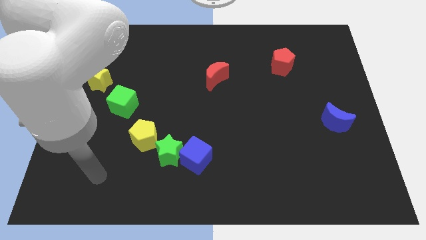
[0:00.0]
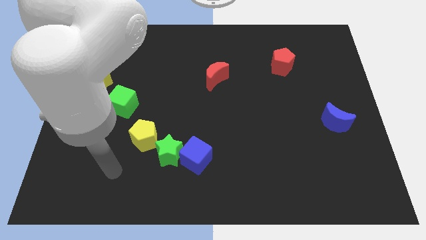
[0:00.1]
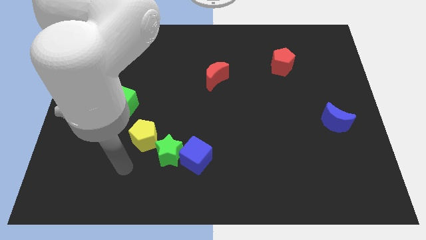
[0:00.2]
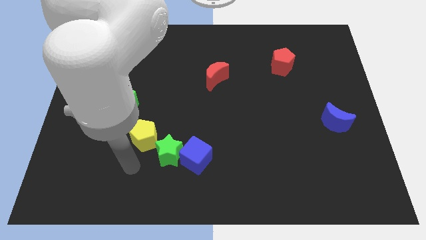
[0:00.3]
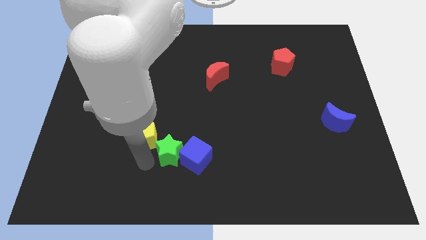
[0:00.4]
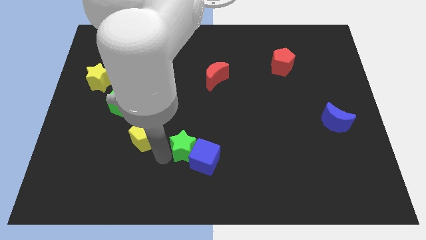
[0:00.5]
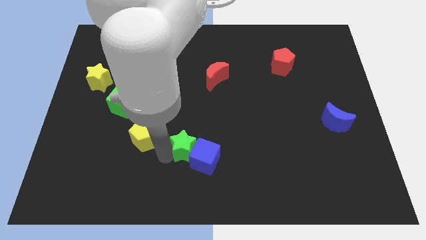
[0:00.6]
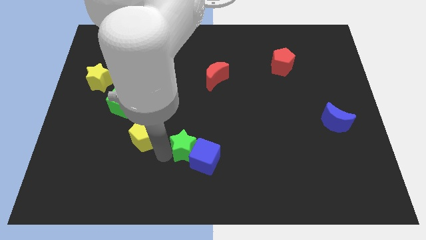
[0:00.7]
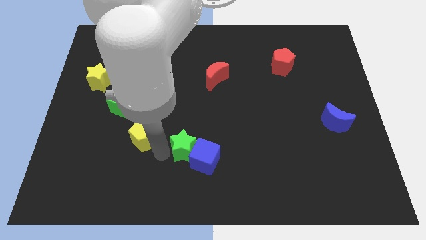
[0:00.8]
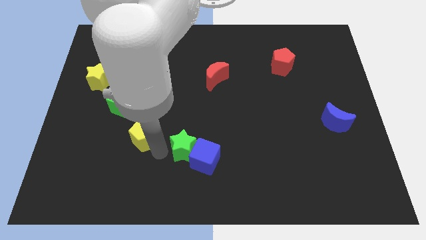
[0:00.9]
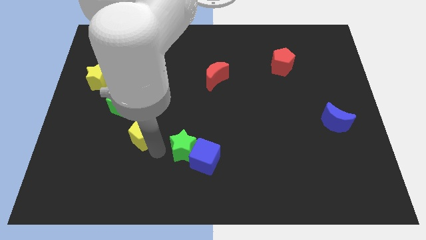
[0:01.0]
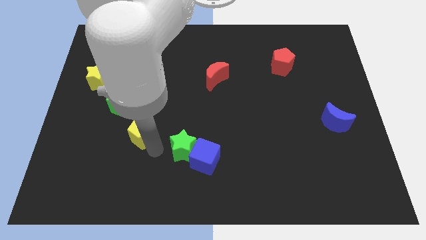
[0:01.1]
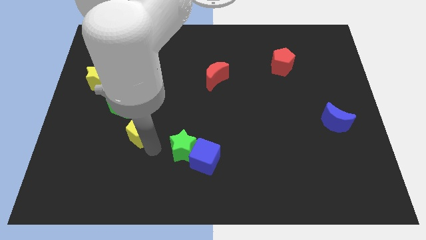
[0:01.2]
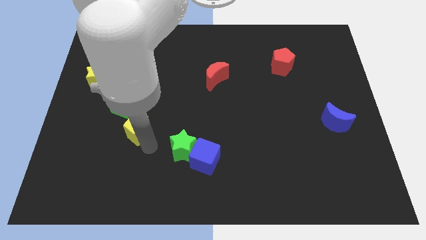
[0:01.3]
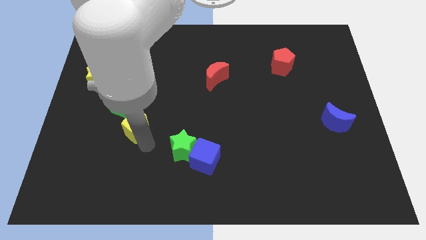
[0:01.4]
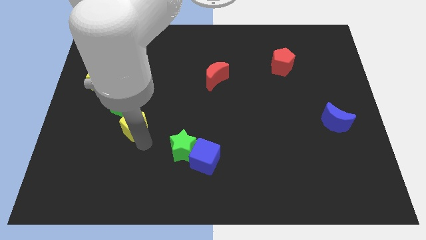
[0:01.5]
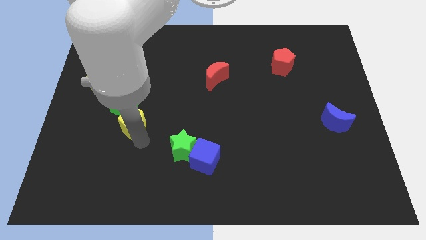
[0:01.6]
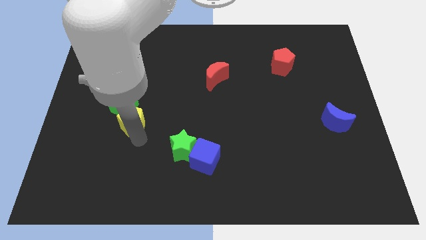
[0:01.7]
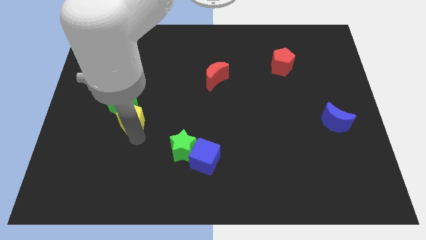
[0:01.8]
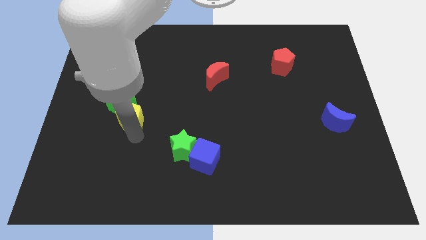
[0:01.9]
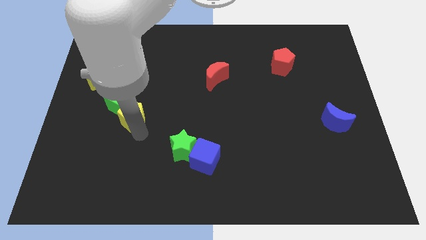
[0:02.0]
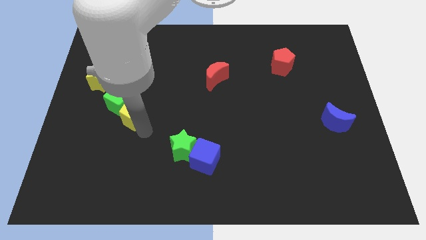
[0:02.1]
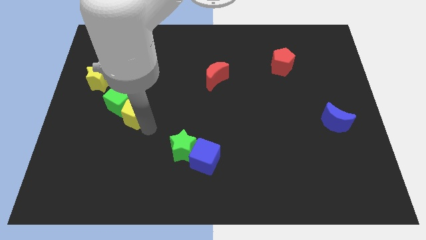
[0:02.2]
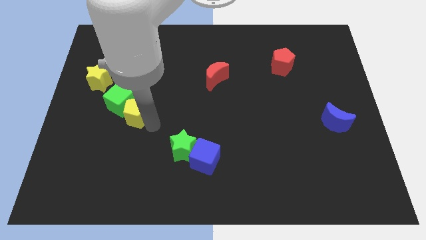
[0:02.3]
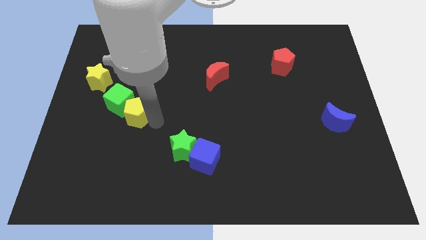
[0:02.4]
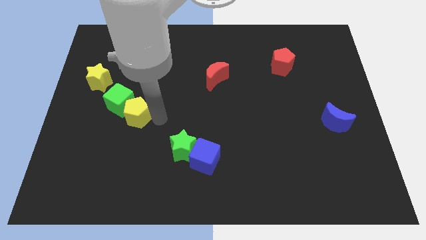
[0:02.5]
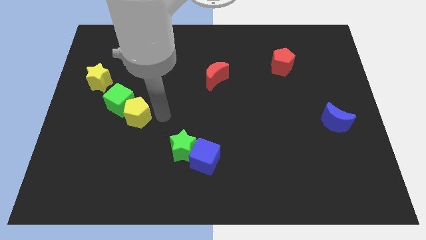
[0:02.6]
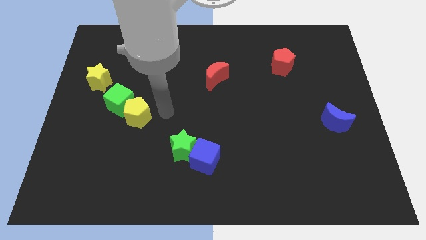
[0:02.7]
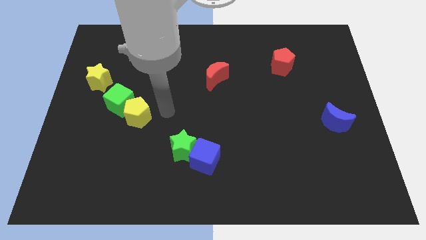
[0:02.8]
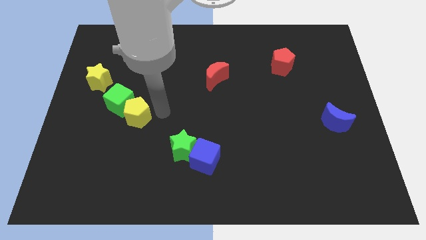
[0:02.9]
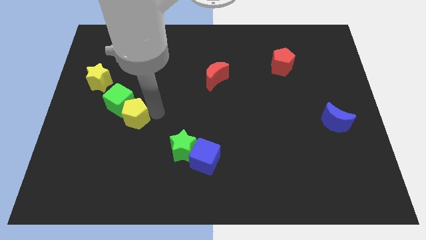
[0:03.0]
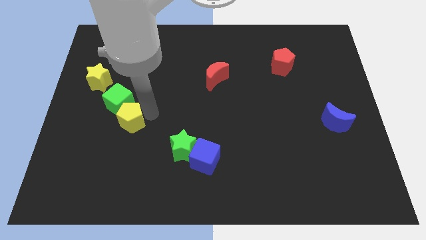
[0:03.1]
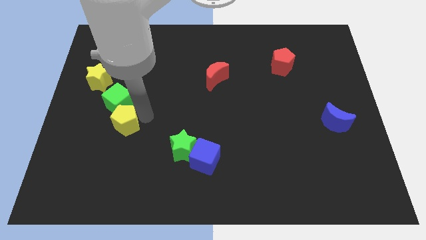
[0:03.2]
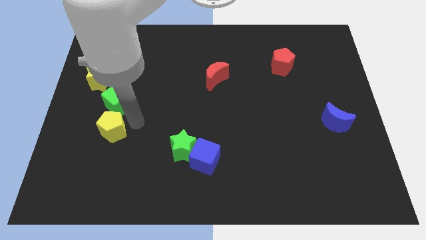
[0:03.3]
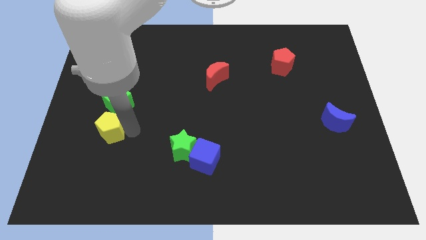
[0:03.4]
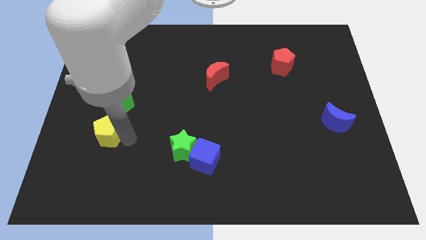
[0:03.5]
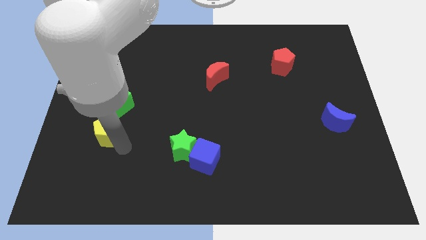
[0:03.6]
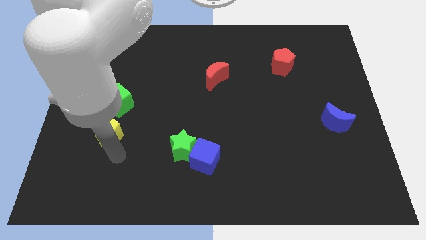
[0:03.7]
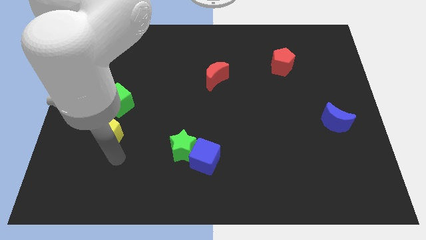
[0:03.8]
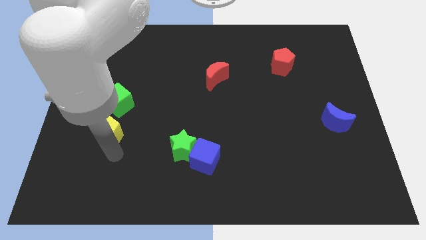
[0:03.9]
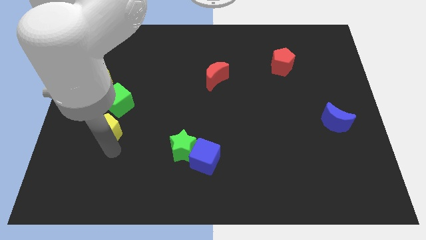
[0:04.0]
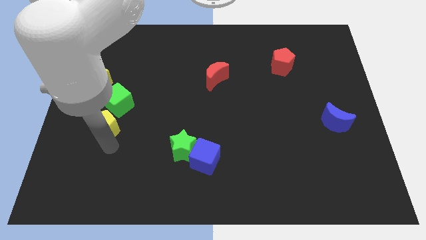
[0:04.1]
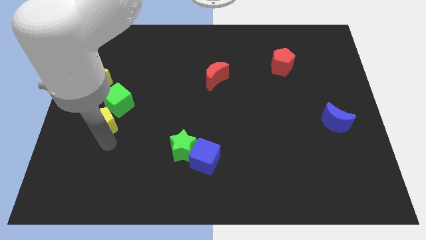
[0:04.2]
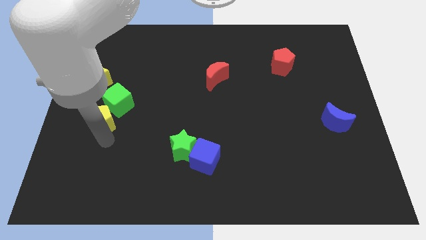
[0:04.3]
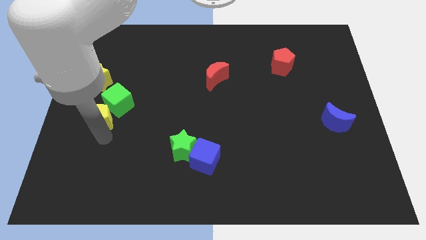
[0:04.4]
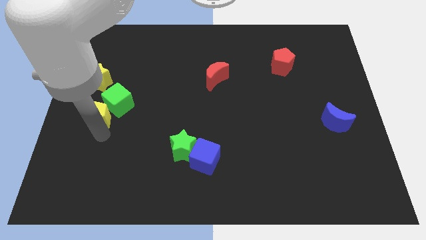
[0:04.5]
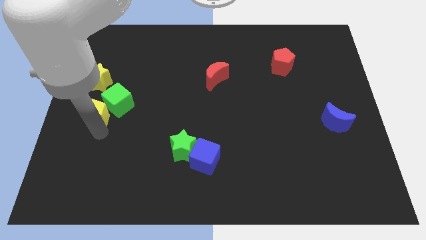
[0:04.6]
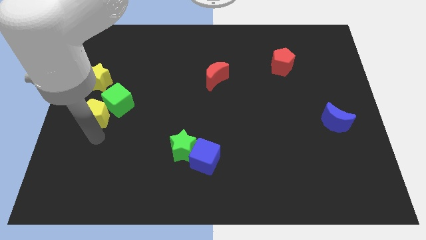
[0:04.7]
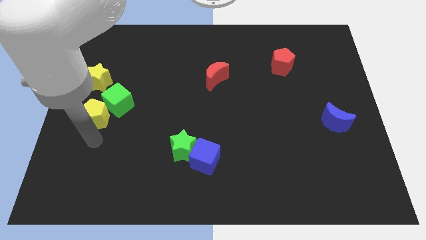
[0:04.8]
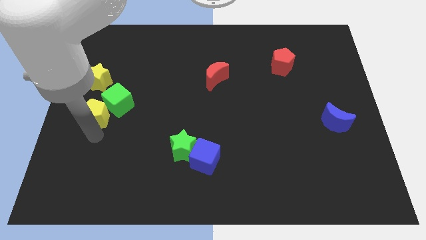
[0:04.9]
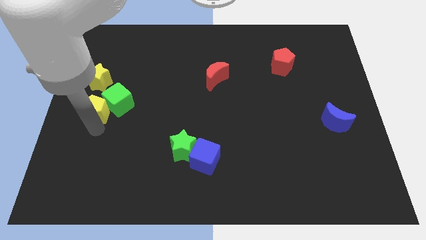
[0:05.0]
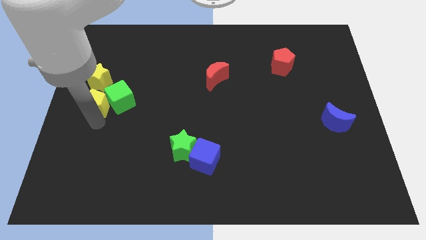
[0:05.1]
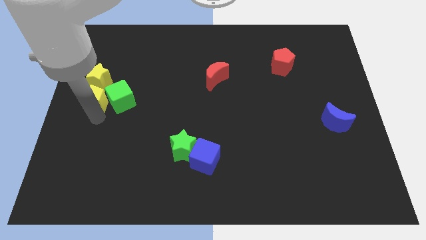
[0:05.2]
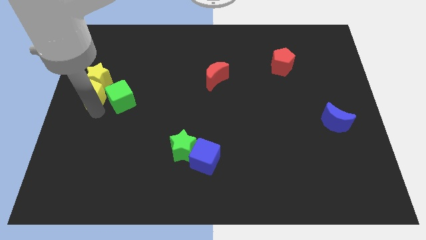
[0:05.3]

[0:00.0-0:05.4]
slide the yellow pentagon next to the yellow star

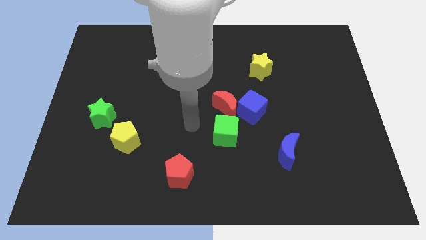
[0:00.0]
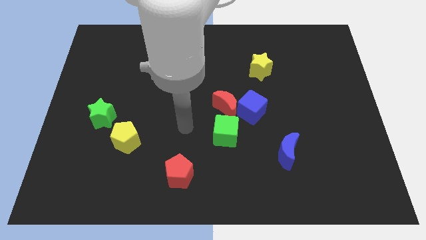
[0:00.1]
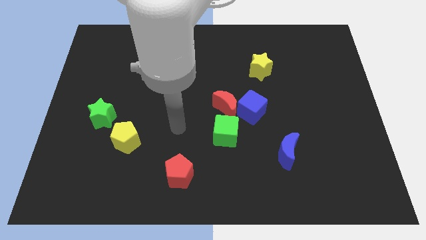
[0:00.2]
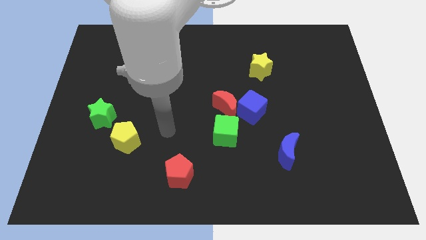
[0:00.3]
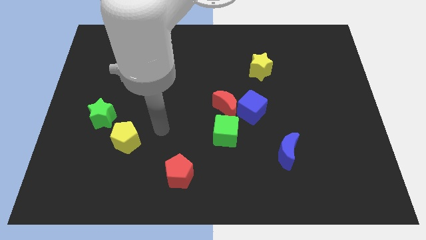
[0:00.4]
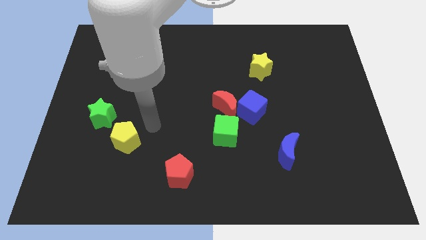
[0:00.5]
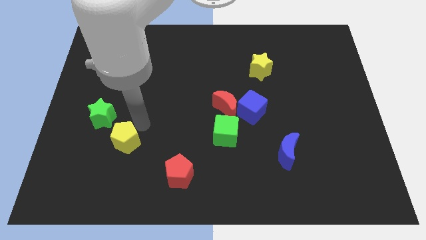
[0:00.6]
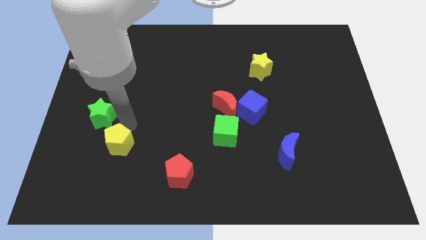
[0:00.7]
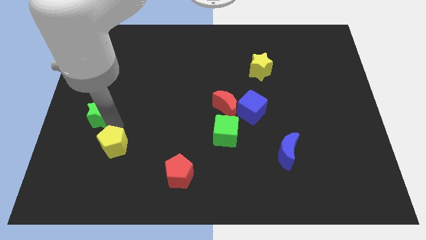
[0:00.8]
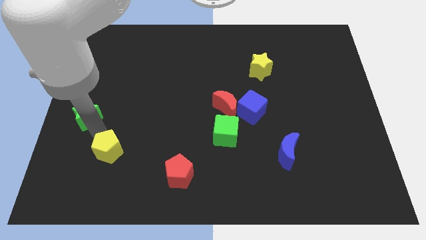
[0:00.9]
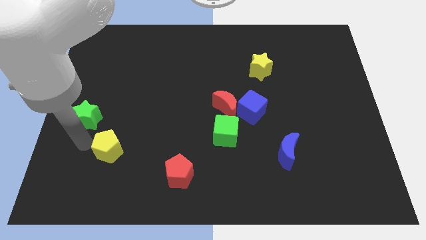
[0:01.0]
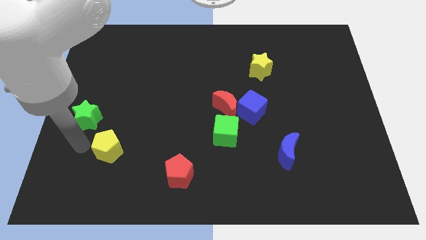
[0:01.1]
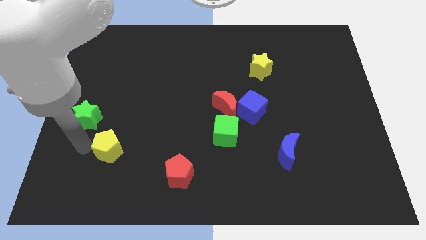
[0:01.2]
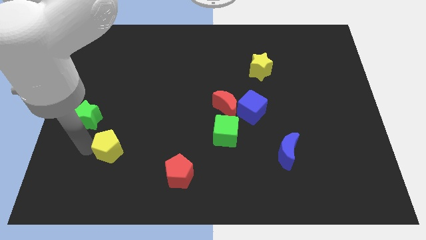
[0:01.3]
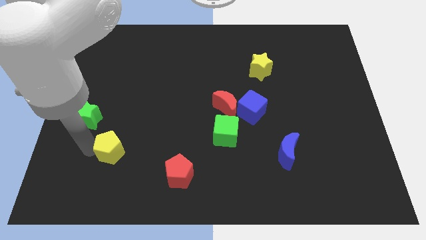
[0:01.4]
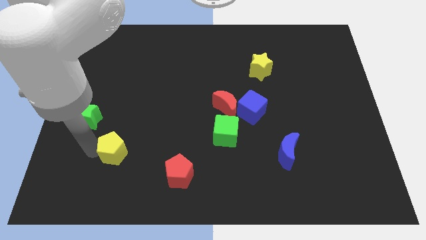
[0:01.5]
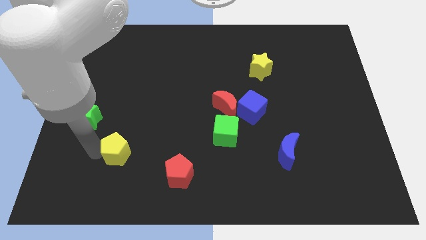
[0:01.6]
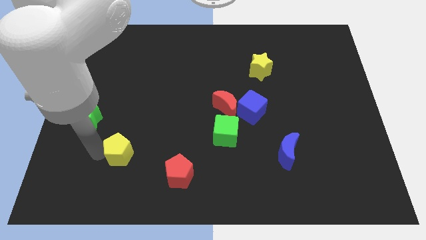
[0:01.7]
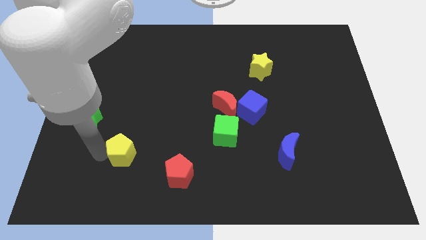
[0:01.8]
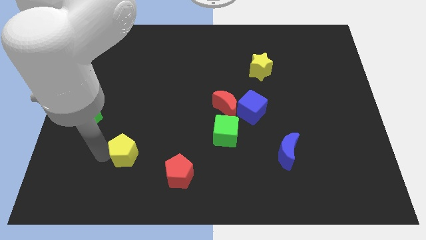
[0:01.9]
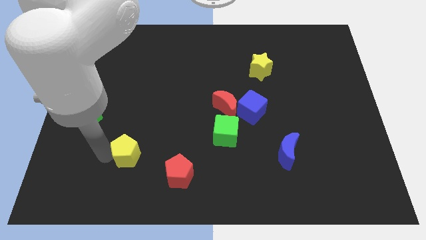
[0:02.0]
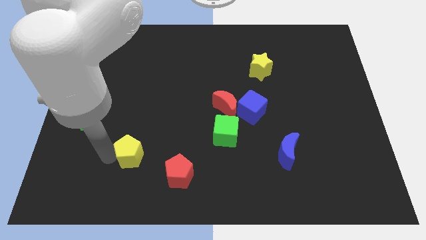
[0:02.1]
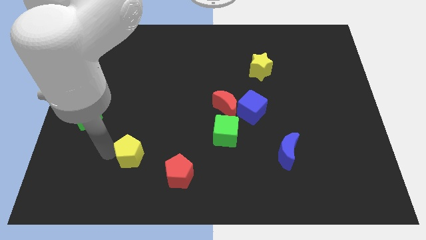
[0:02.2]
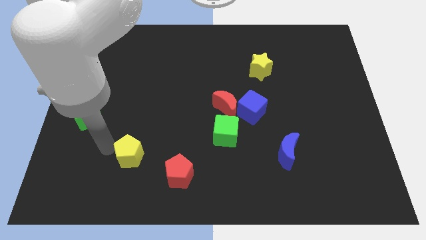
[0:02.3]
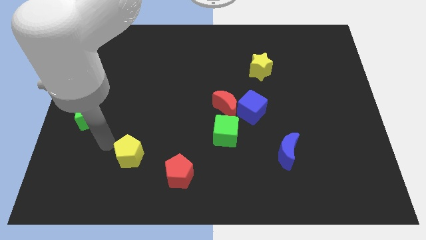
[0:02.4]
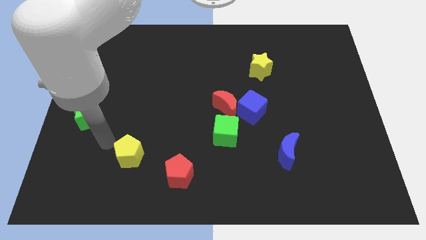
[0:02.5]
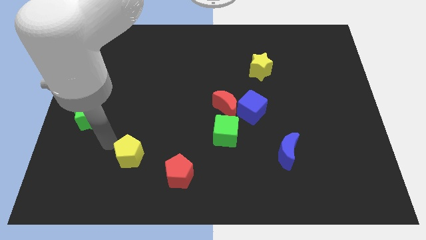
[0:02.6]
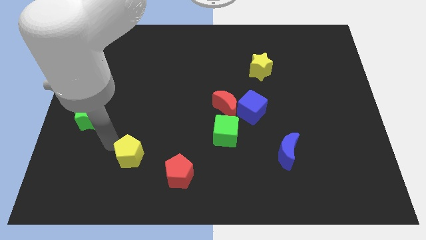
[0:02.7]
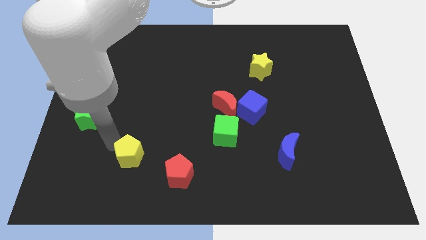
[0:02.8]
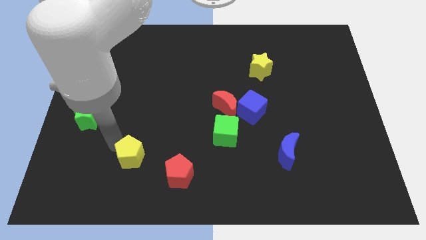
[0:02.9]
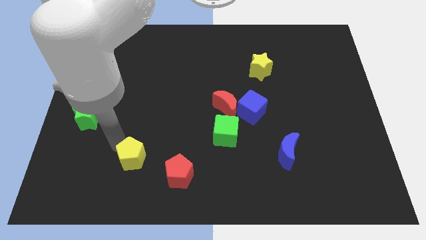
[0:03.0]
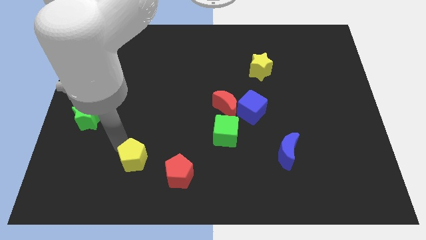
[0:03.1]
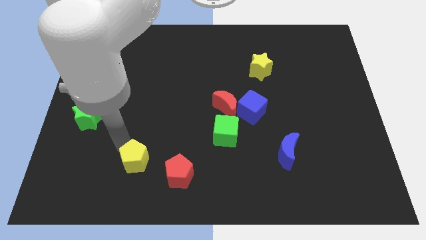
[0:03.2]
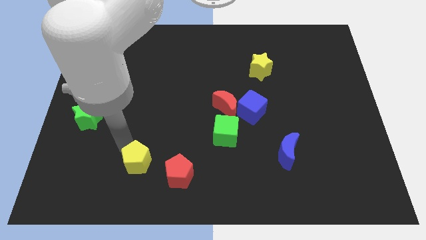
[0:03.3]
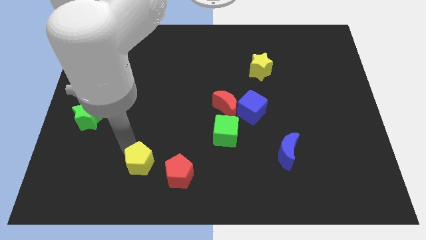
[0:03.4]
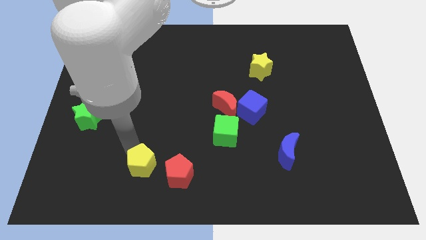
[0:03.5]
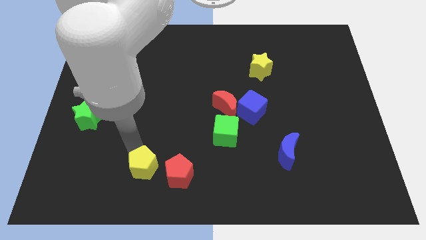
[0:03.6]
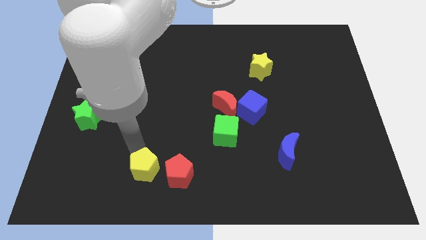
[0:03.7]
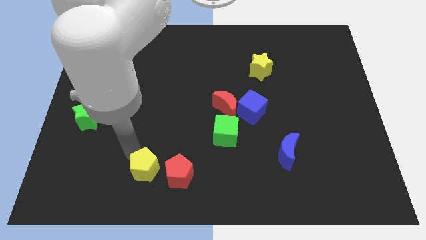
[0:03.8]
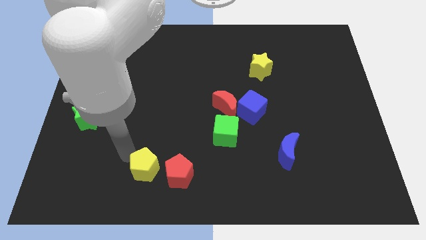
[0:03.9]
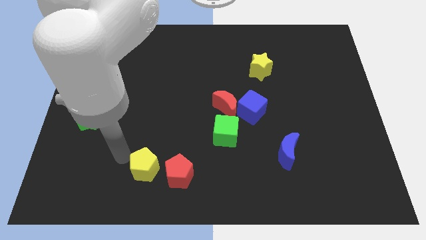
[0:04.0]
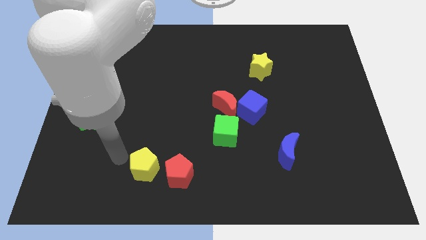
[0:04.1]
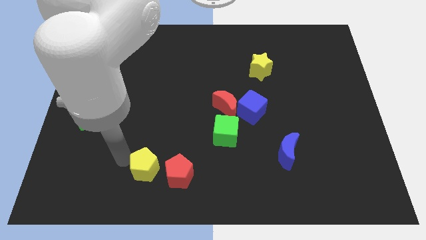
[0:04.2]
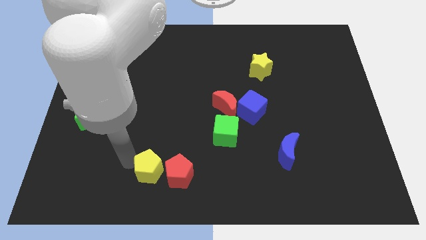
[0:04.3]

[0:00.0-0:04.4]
push the yellow pentagon next to the red pentagon
